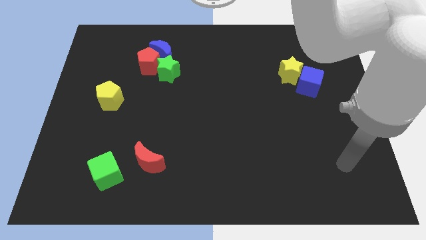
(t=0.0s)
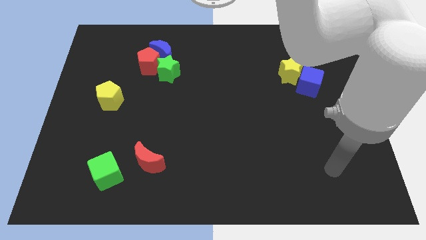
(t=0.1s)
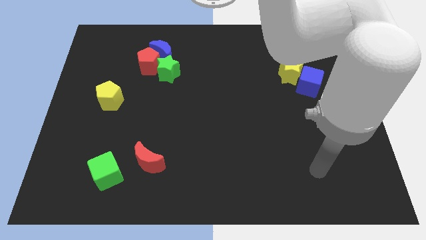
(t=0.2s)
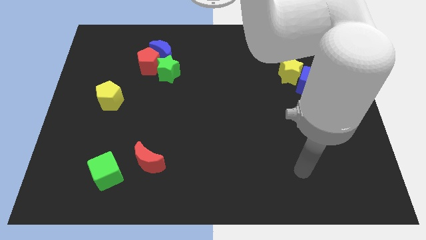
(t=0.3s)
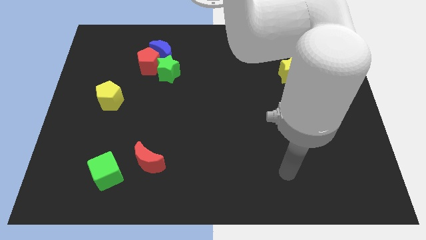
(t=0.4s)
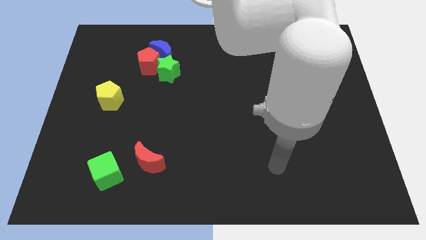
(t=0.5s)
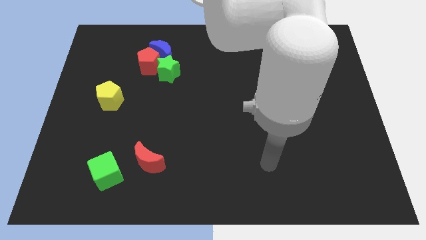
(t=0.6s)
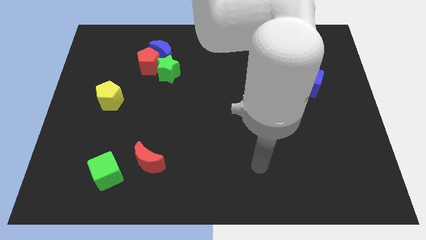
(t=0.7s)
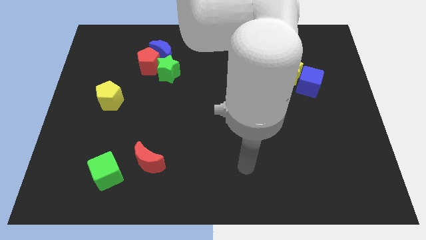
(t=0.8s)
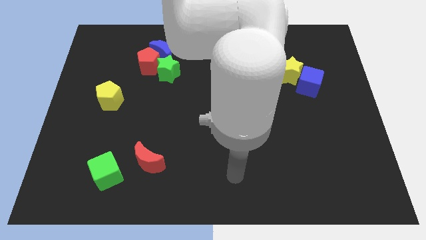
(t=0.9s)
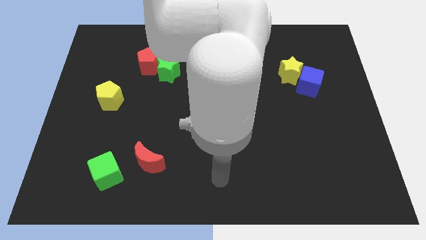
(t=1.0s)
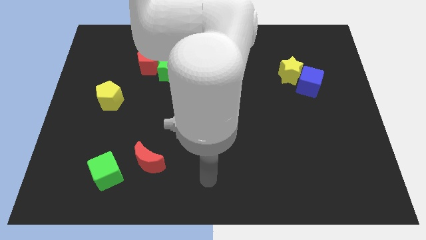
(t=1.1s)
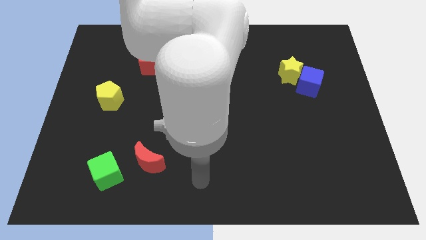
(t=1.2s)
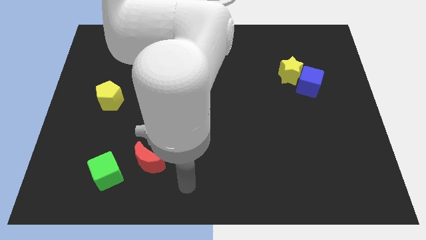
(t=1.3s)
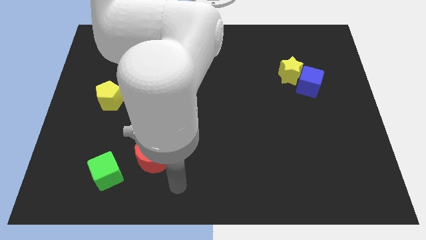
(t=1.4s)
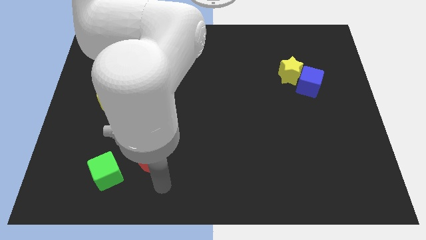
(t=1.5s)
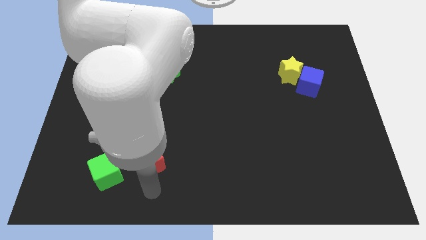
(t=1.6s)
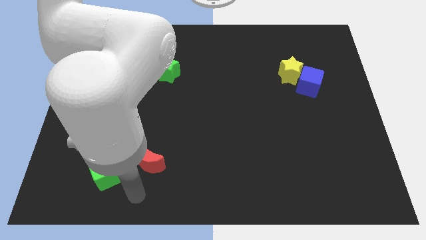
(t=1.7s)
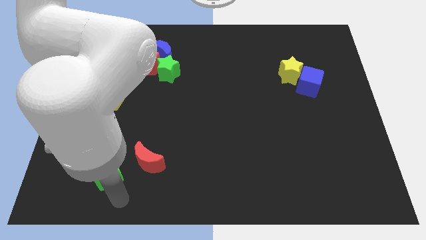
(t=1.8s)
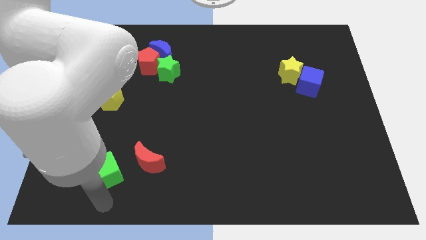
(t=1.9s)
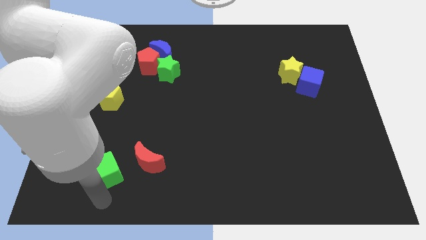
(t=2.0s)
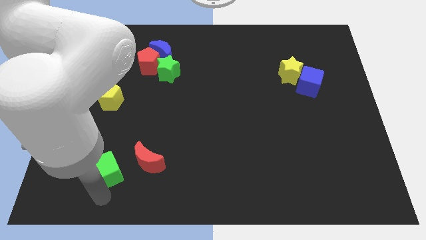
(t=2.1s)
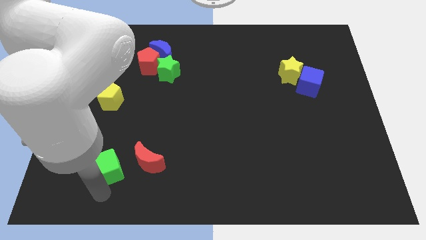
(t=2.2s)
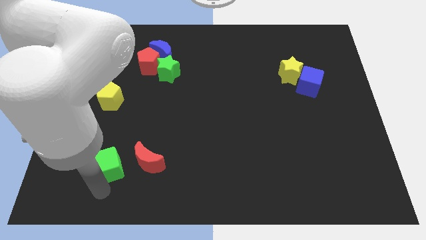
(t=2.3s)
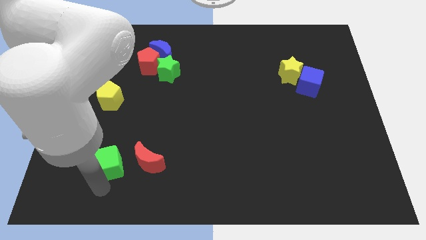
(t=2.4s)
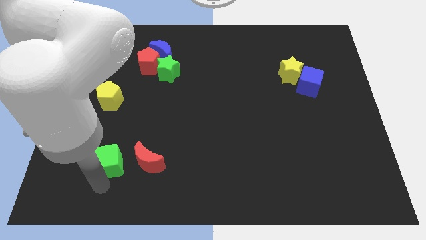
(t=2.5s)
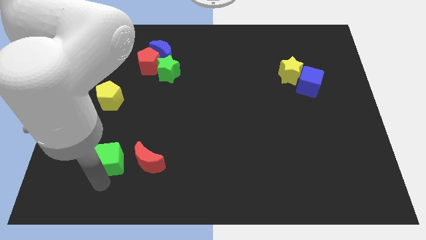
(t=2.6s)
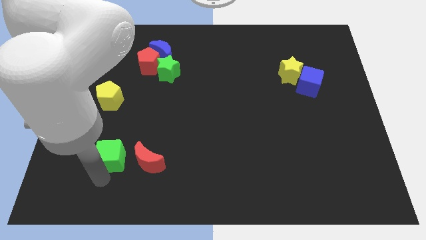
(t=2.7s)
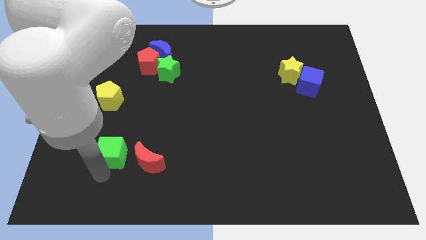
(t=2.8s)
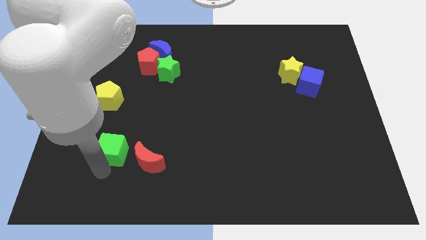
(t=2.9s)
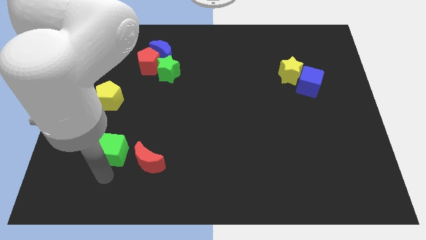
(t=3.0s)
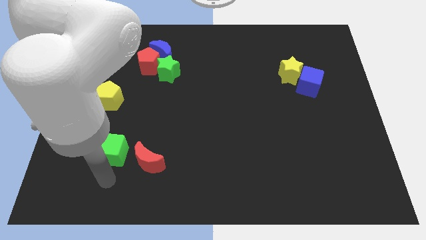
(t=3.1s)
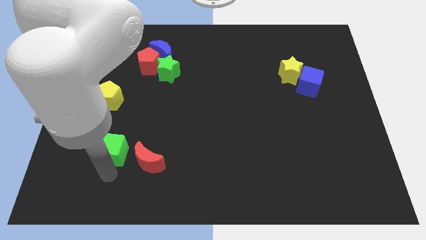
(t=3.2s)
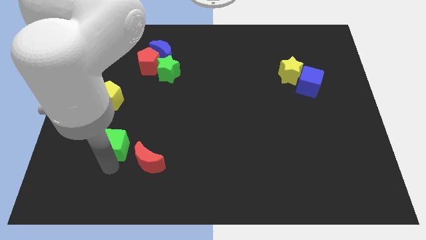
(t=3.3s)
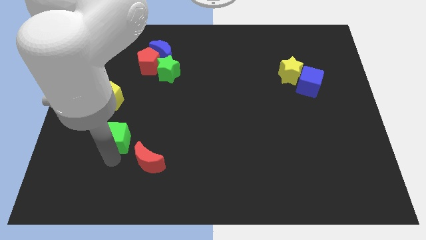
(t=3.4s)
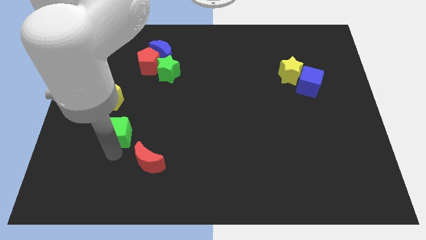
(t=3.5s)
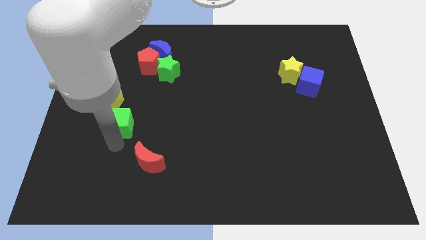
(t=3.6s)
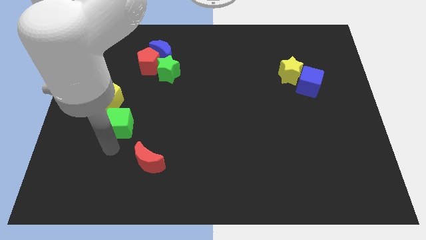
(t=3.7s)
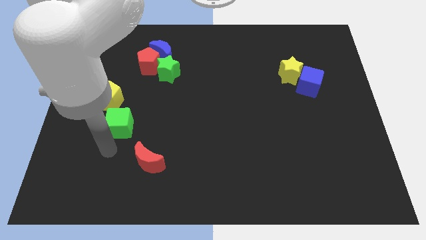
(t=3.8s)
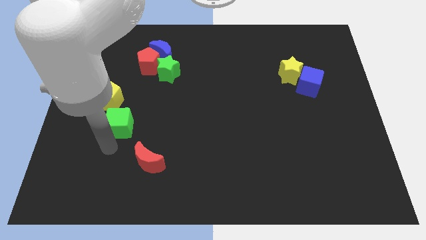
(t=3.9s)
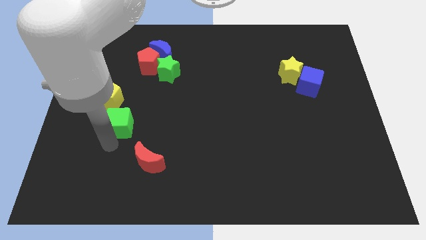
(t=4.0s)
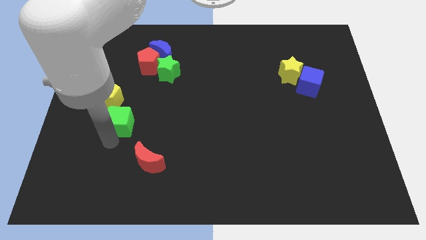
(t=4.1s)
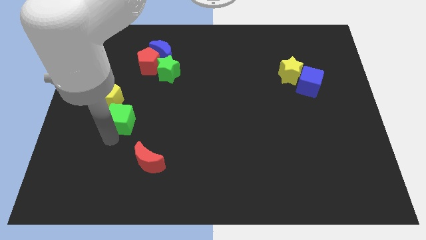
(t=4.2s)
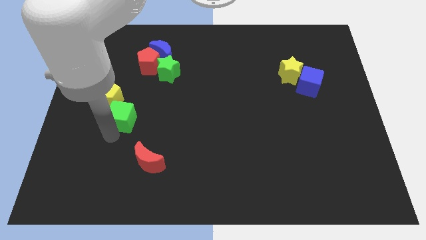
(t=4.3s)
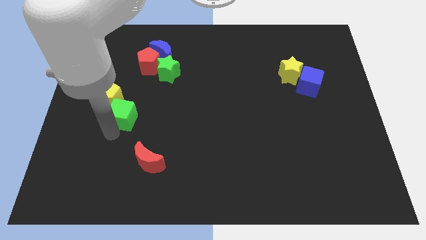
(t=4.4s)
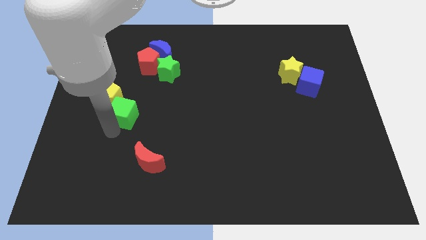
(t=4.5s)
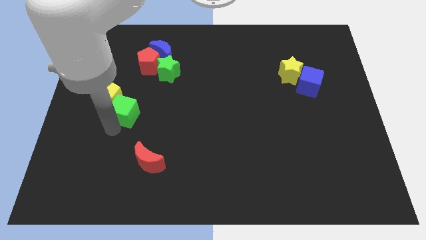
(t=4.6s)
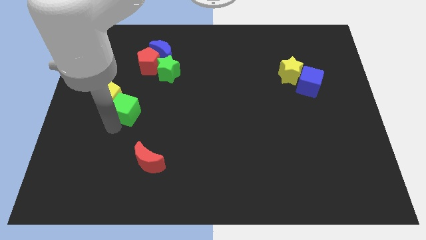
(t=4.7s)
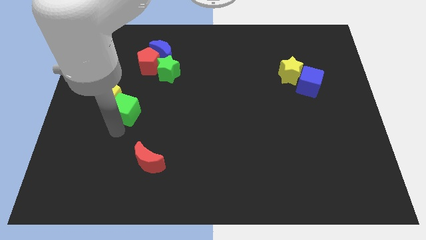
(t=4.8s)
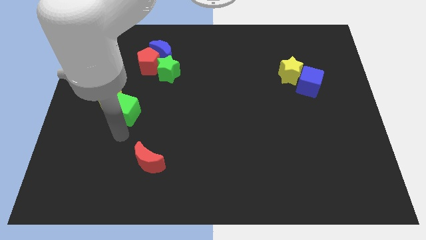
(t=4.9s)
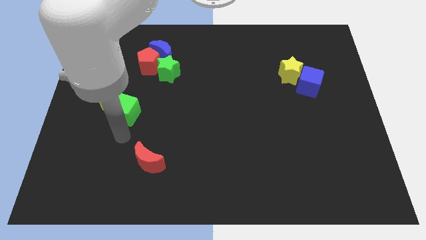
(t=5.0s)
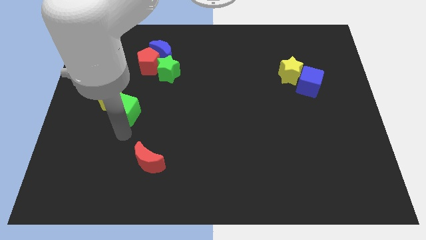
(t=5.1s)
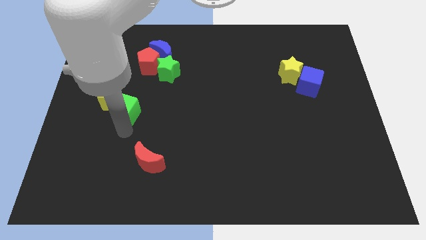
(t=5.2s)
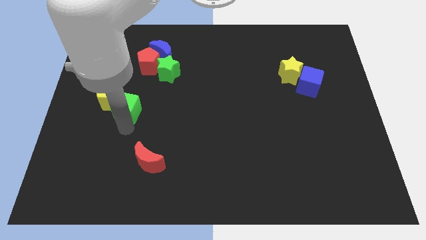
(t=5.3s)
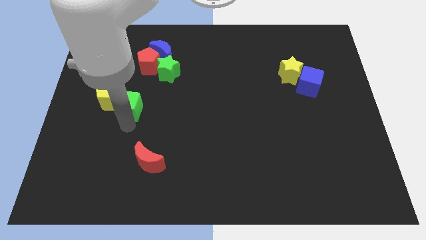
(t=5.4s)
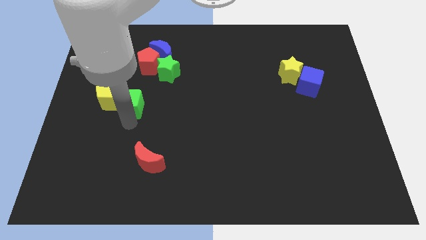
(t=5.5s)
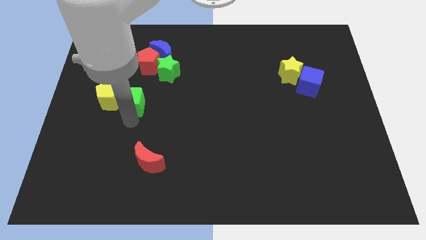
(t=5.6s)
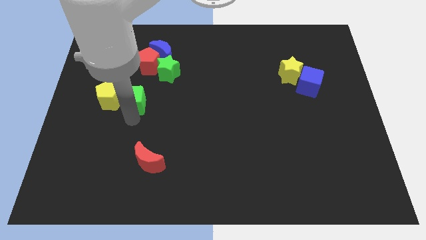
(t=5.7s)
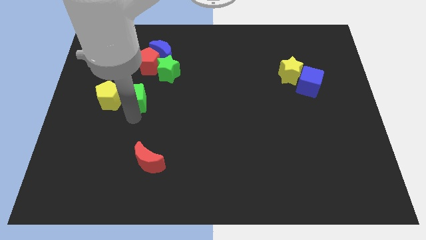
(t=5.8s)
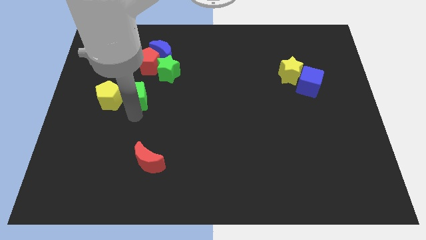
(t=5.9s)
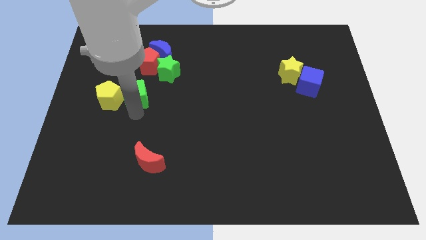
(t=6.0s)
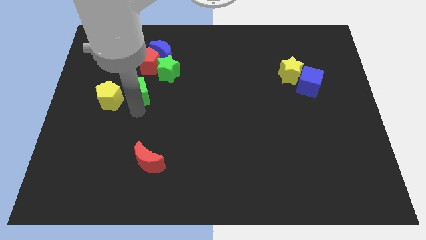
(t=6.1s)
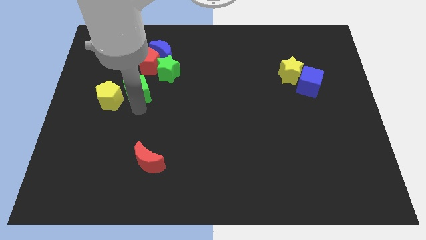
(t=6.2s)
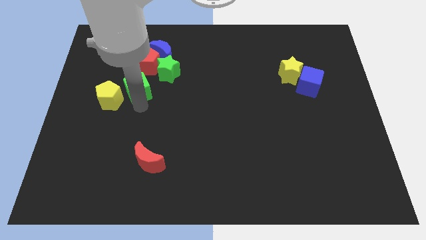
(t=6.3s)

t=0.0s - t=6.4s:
put the green cube to the bottom left side of the red pentagon
